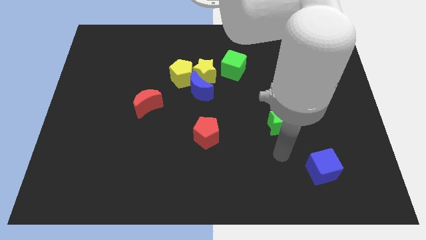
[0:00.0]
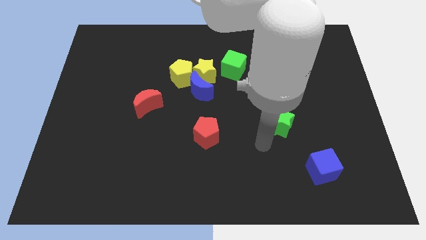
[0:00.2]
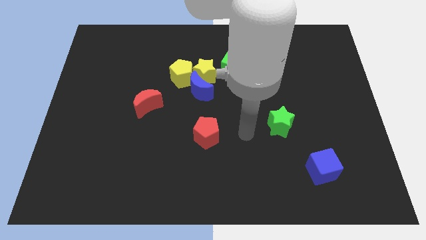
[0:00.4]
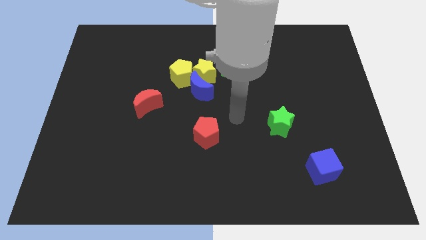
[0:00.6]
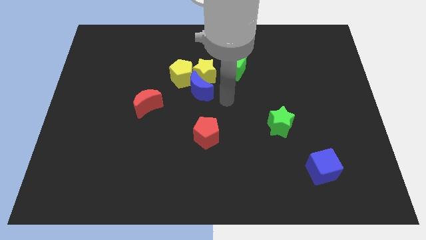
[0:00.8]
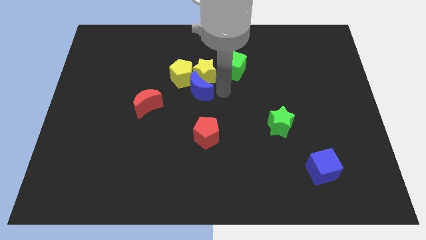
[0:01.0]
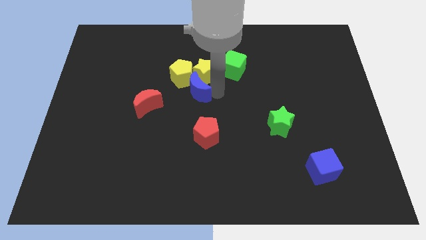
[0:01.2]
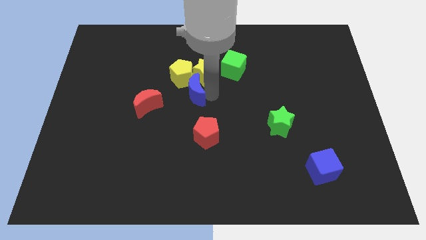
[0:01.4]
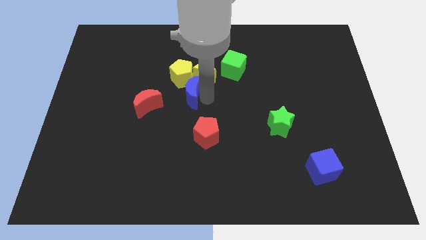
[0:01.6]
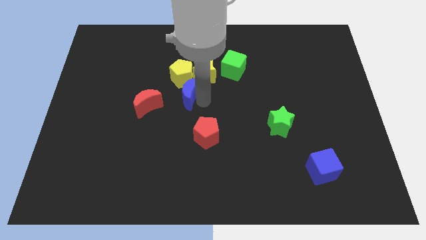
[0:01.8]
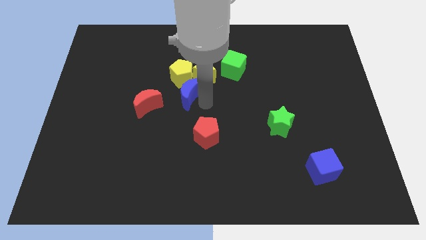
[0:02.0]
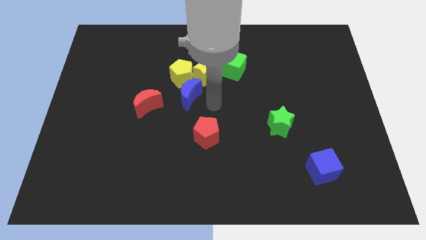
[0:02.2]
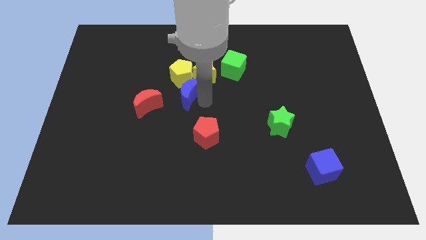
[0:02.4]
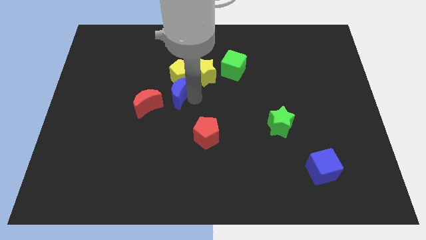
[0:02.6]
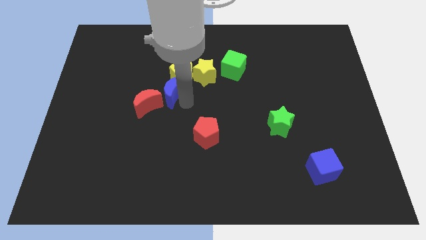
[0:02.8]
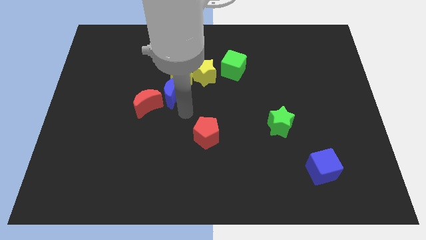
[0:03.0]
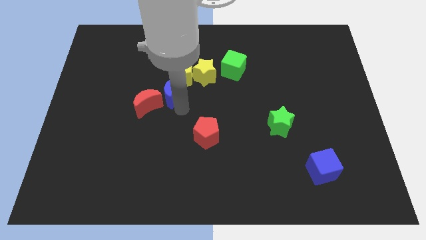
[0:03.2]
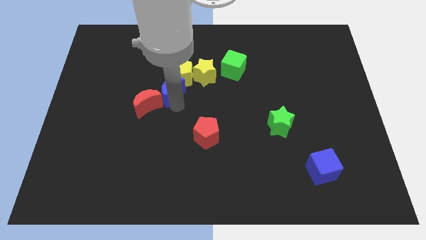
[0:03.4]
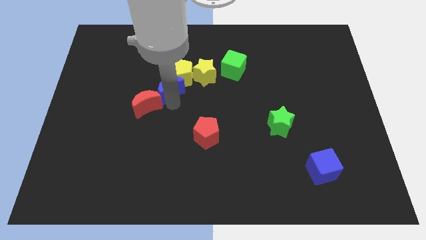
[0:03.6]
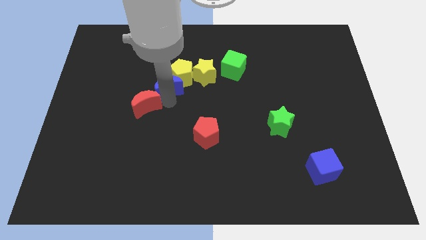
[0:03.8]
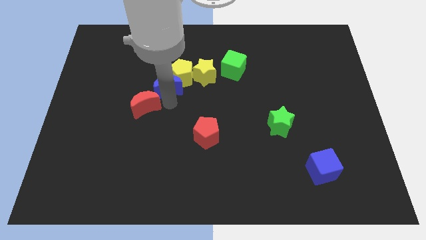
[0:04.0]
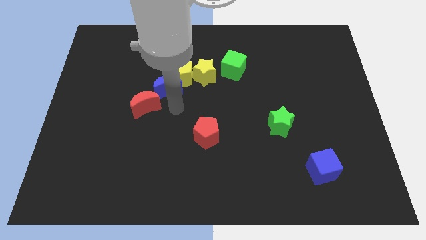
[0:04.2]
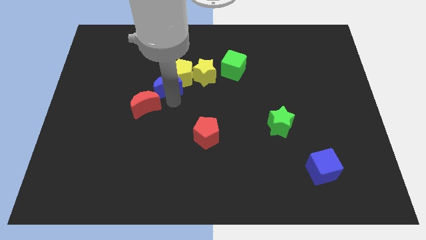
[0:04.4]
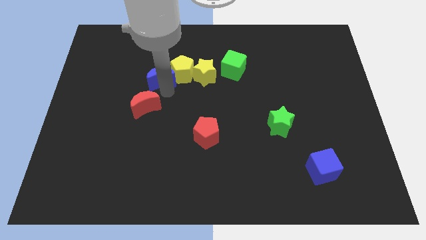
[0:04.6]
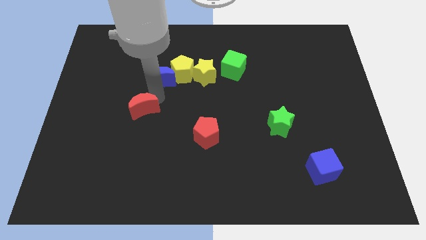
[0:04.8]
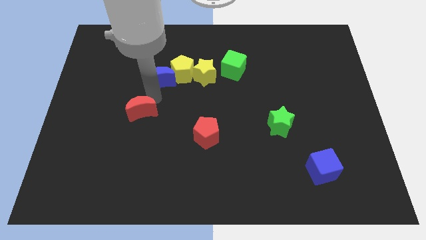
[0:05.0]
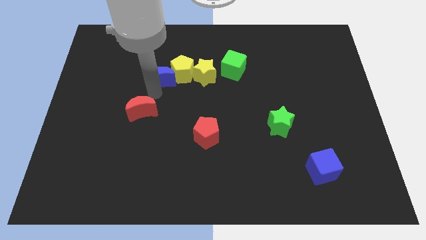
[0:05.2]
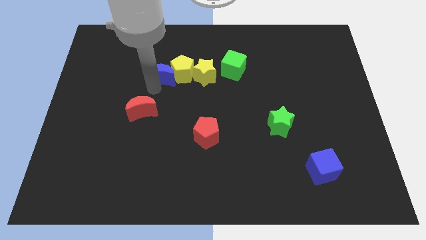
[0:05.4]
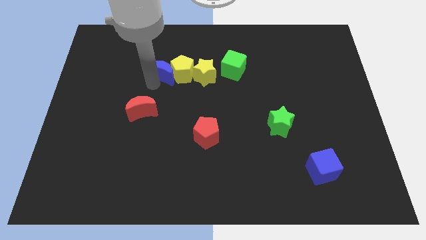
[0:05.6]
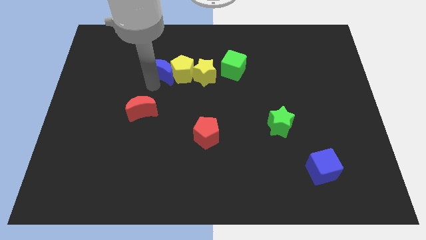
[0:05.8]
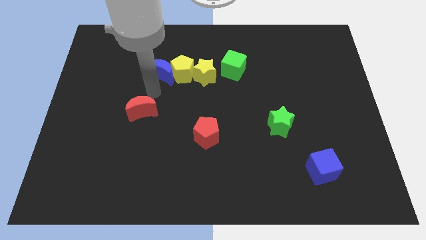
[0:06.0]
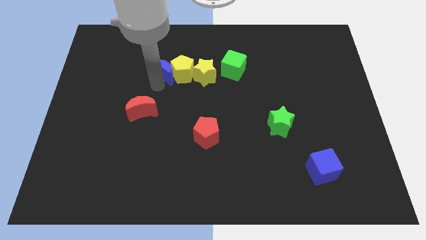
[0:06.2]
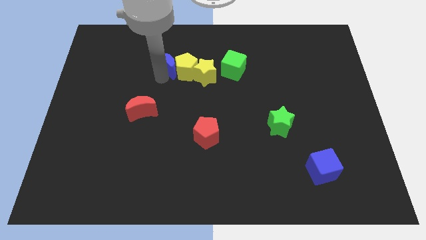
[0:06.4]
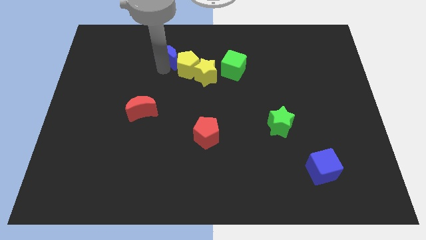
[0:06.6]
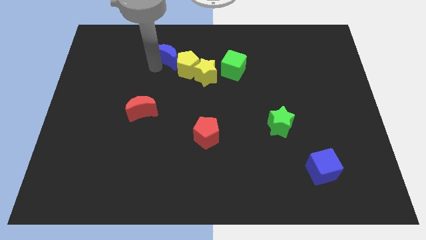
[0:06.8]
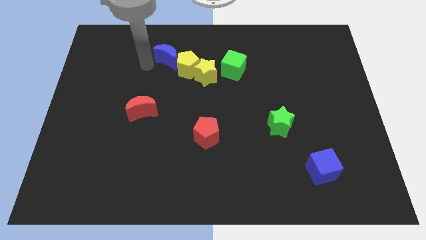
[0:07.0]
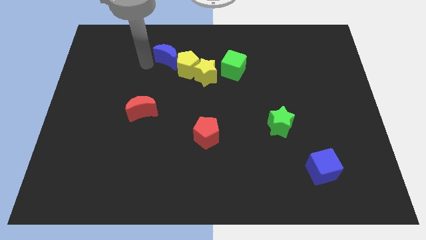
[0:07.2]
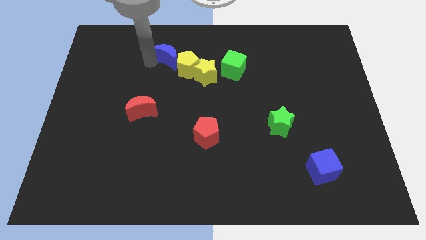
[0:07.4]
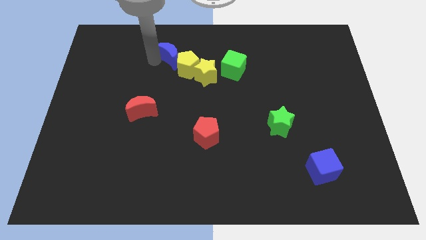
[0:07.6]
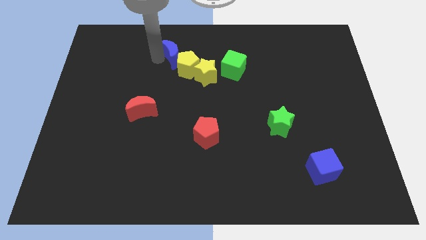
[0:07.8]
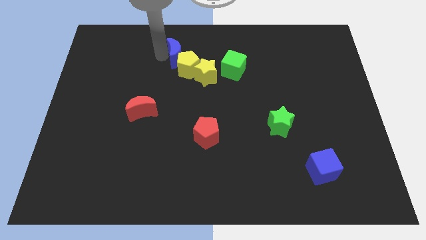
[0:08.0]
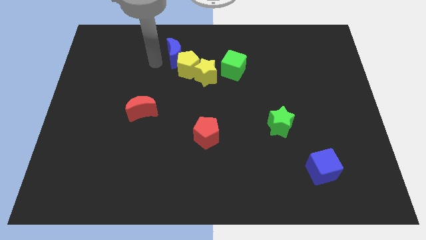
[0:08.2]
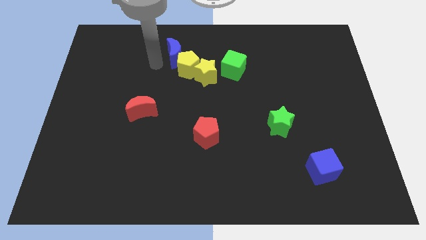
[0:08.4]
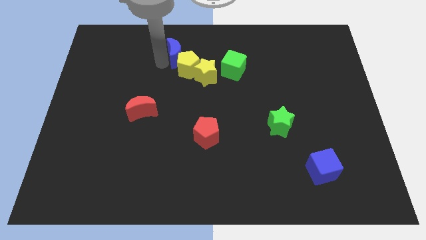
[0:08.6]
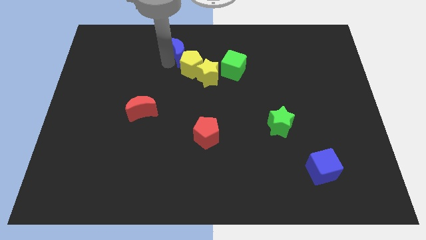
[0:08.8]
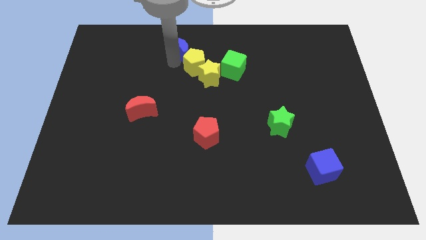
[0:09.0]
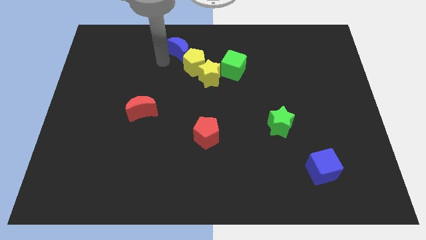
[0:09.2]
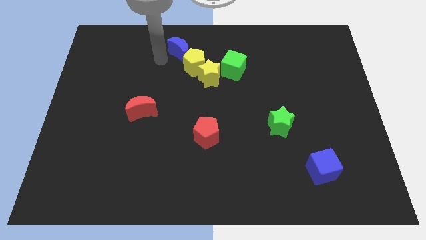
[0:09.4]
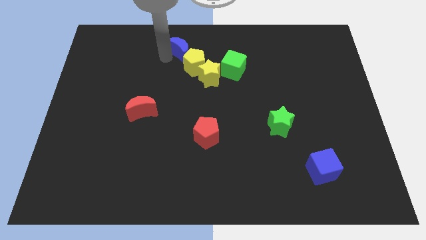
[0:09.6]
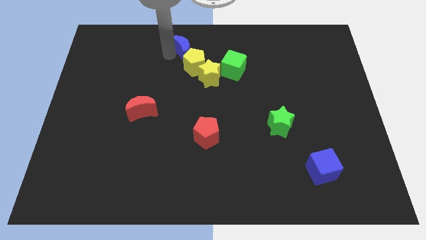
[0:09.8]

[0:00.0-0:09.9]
put the blue moon to the top

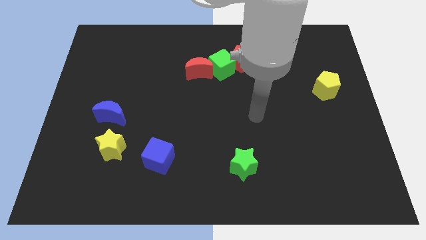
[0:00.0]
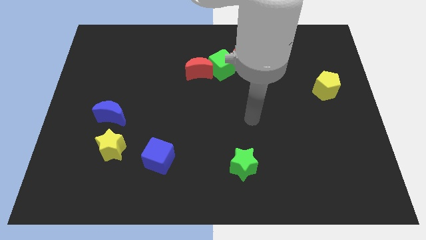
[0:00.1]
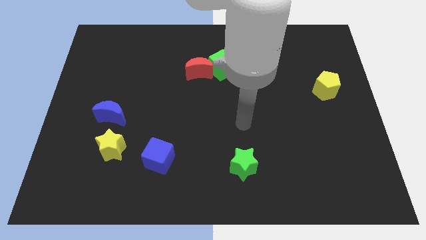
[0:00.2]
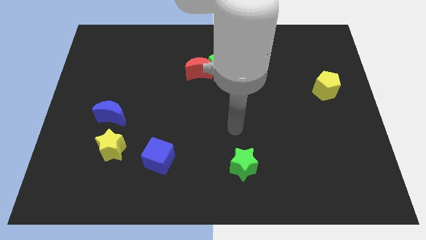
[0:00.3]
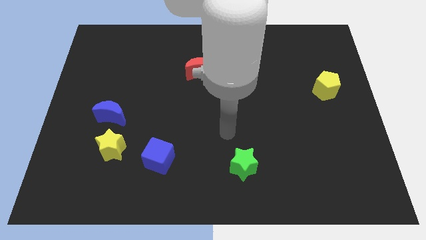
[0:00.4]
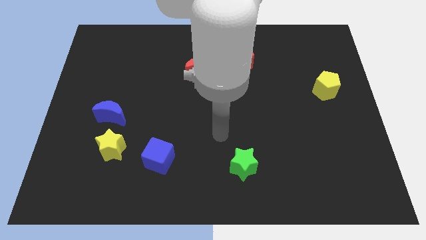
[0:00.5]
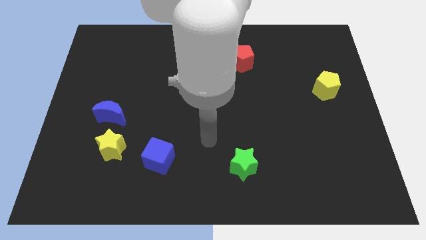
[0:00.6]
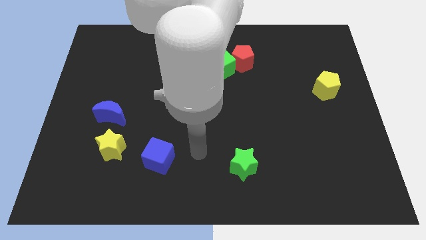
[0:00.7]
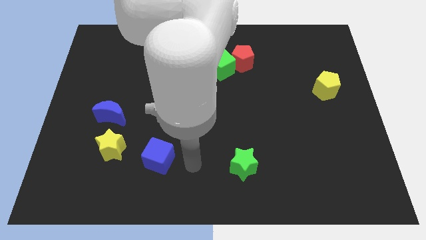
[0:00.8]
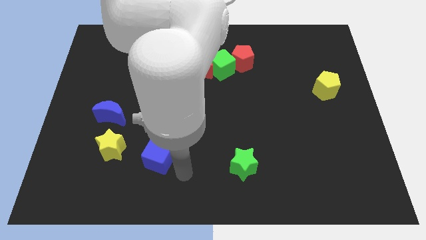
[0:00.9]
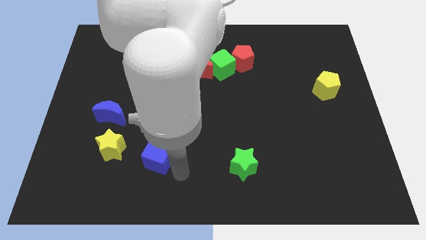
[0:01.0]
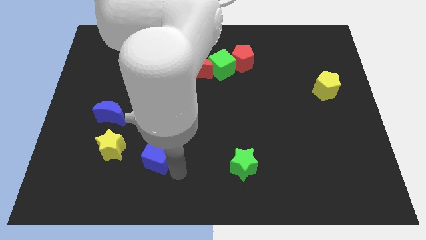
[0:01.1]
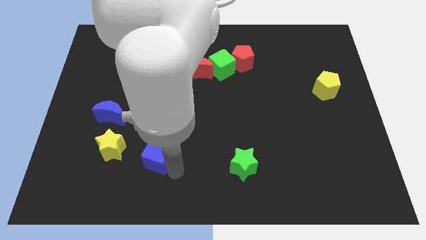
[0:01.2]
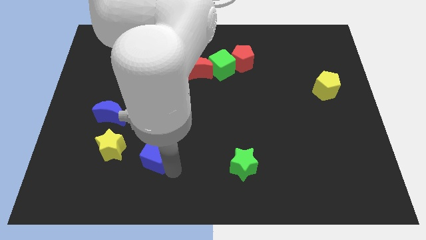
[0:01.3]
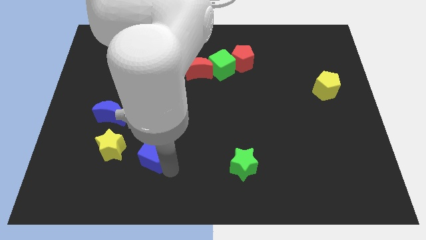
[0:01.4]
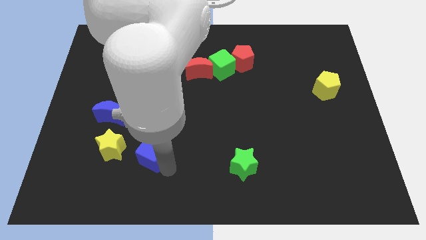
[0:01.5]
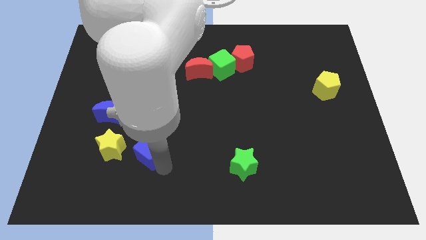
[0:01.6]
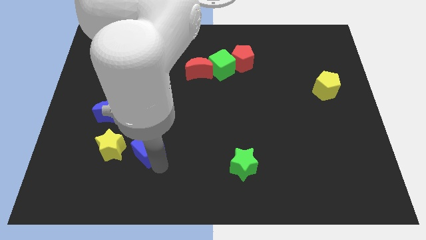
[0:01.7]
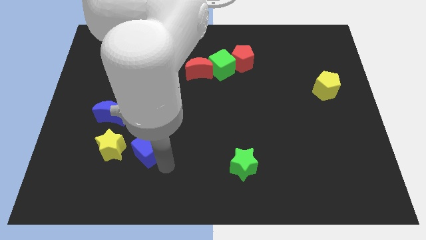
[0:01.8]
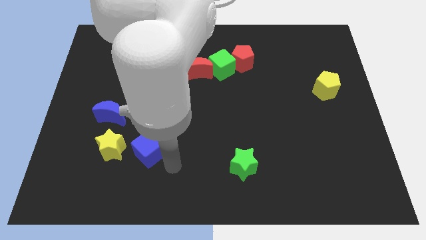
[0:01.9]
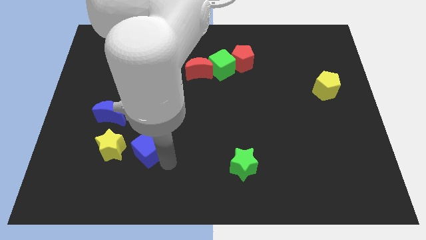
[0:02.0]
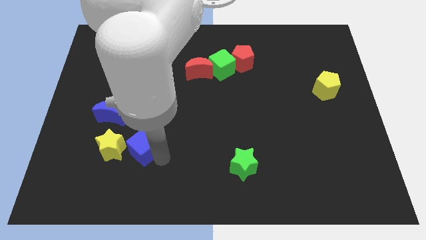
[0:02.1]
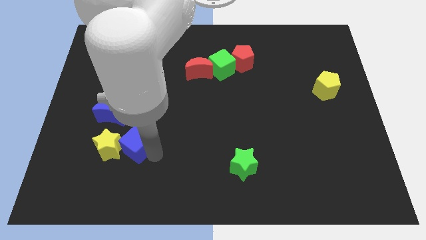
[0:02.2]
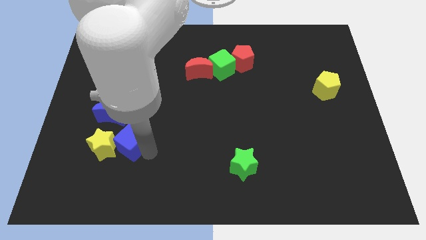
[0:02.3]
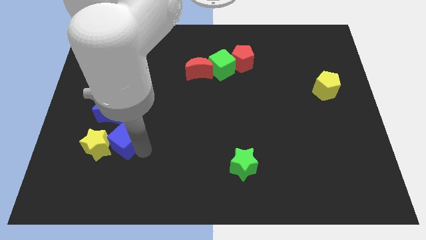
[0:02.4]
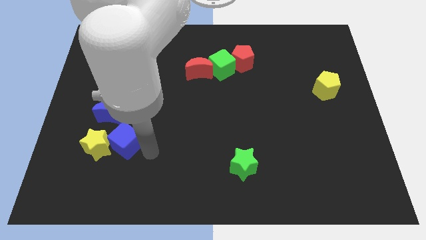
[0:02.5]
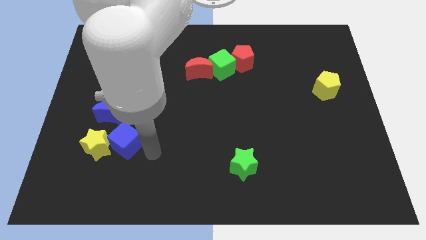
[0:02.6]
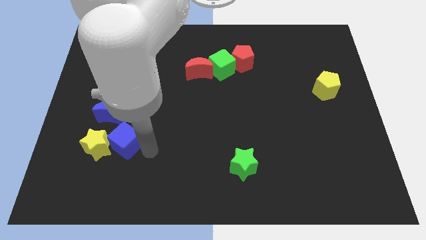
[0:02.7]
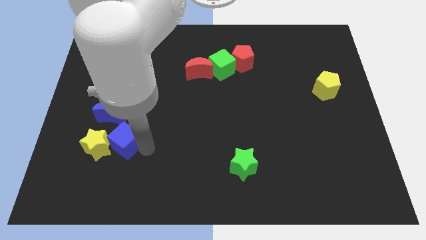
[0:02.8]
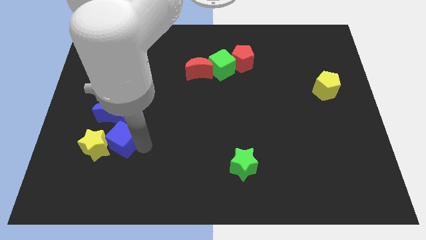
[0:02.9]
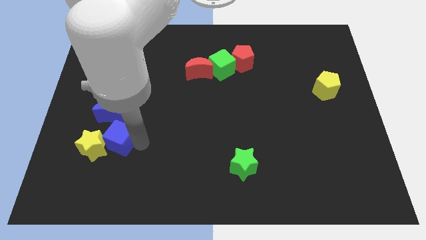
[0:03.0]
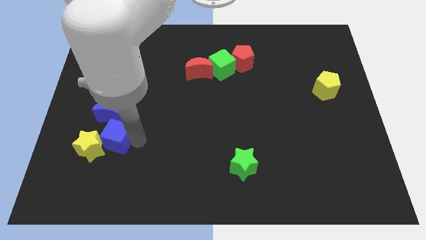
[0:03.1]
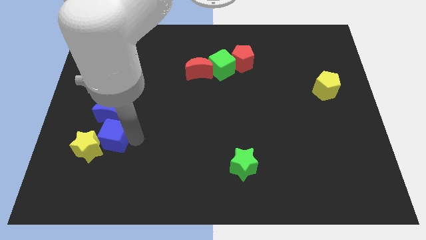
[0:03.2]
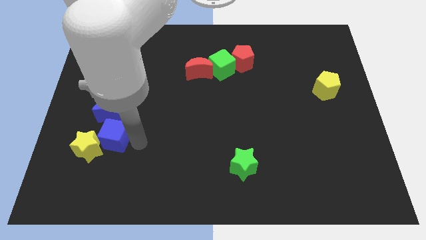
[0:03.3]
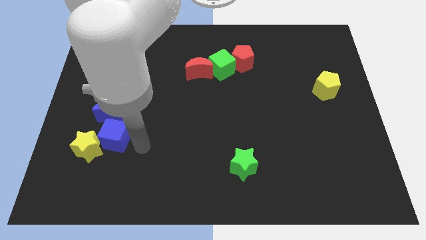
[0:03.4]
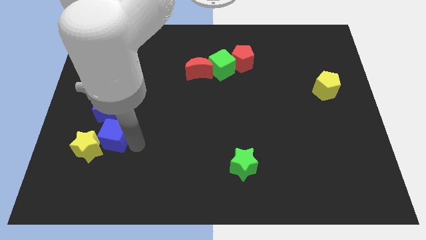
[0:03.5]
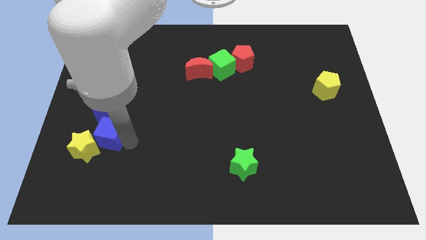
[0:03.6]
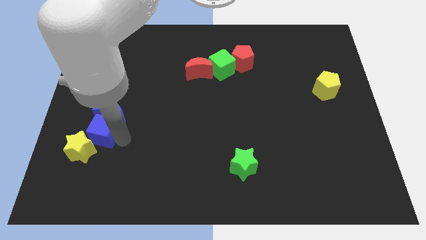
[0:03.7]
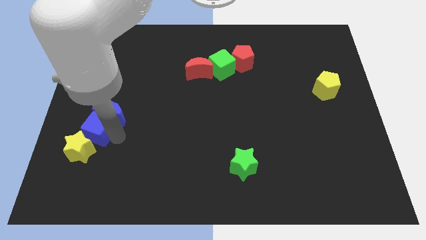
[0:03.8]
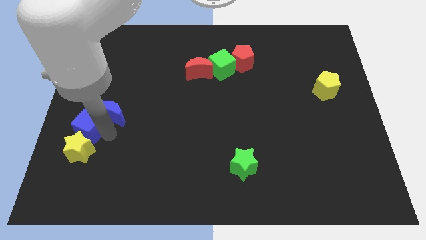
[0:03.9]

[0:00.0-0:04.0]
put the blue cube to the center left
